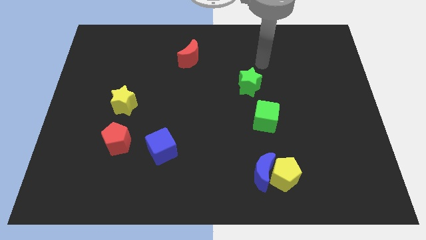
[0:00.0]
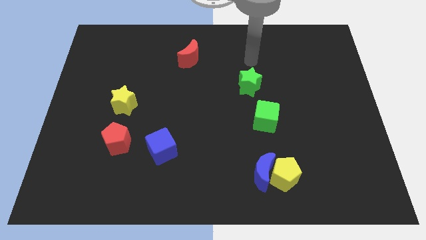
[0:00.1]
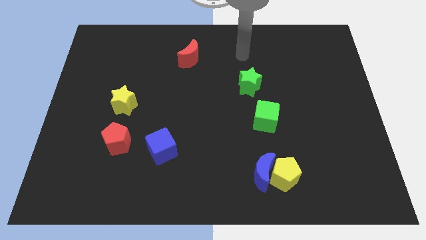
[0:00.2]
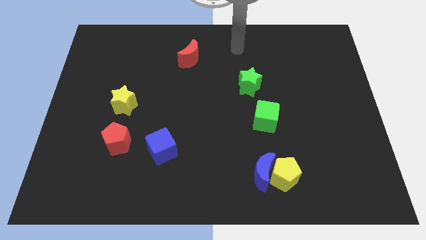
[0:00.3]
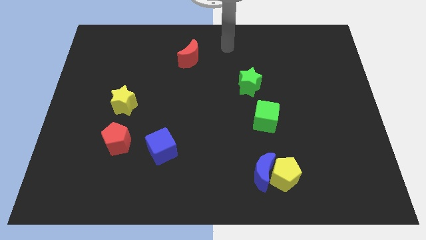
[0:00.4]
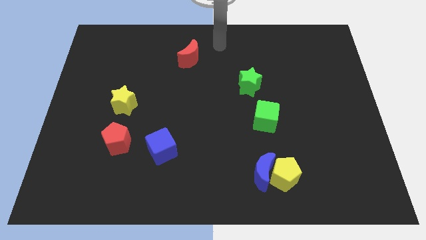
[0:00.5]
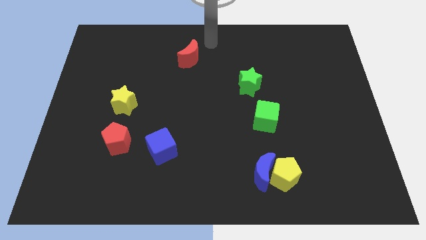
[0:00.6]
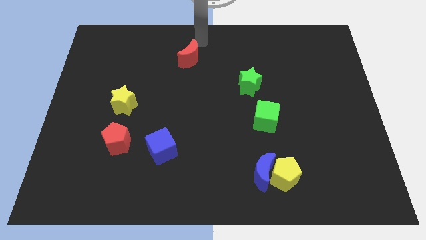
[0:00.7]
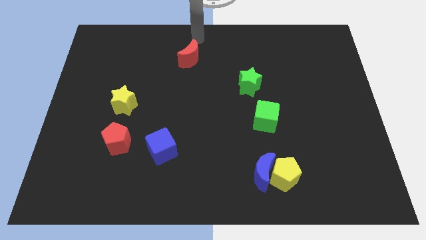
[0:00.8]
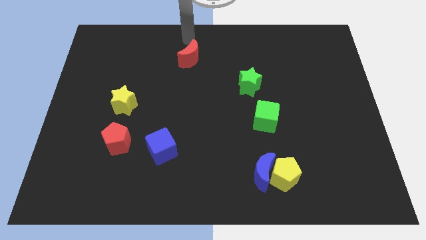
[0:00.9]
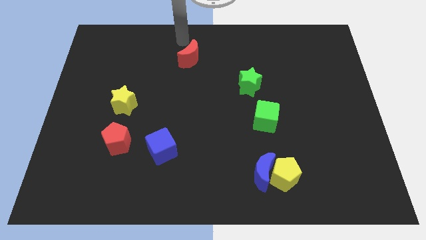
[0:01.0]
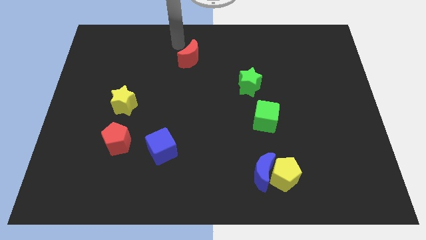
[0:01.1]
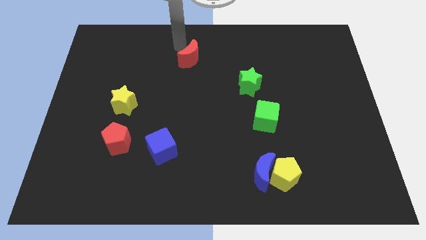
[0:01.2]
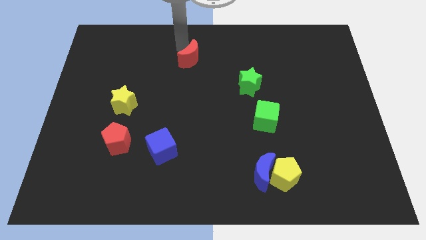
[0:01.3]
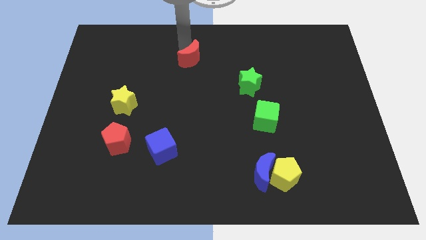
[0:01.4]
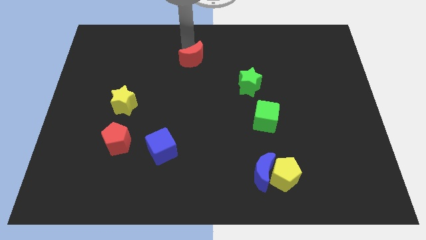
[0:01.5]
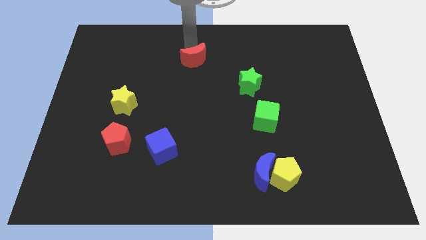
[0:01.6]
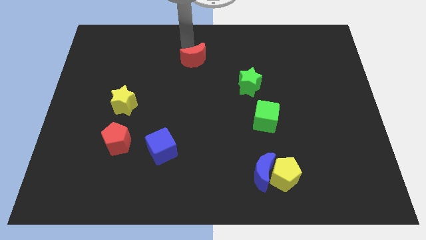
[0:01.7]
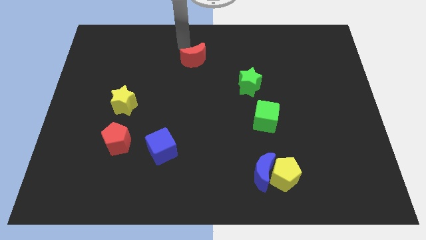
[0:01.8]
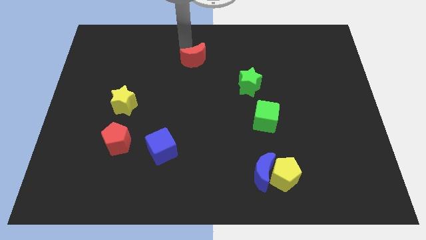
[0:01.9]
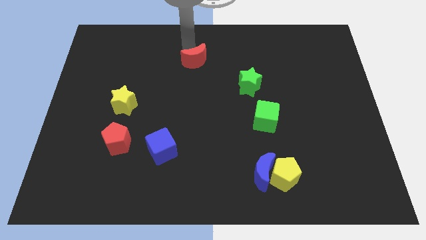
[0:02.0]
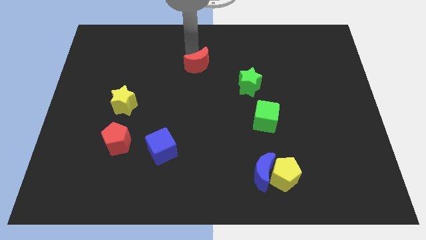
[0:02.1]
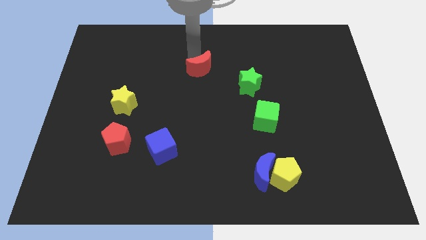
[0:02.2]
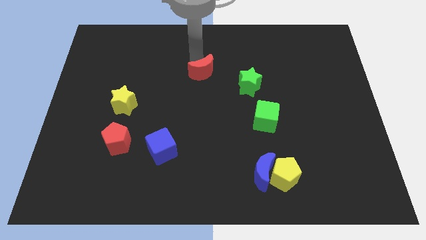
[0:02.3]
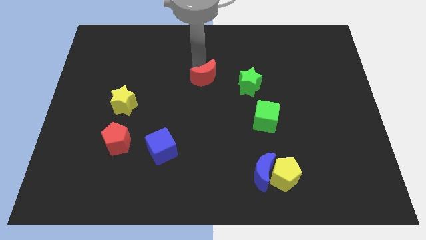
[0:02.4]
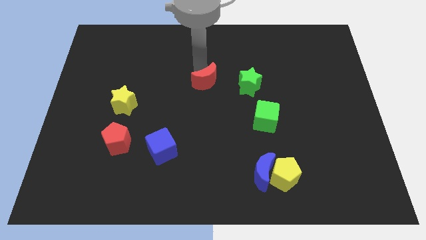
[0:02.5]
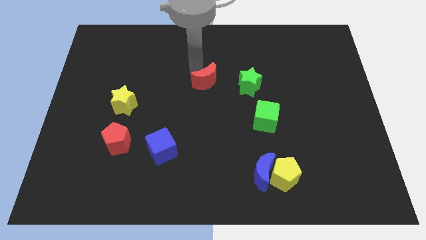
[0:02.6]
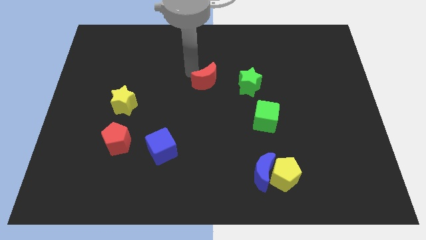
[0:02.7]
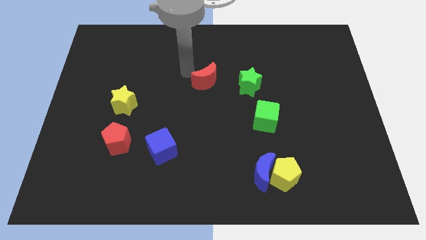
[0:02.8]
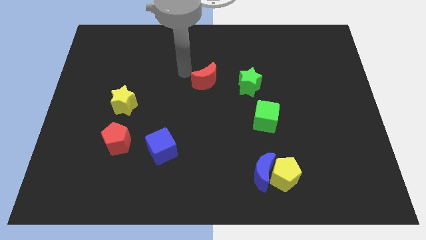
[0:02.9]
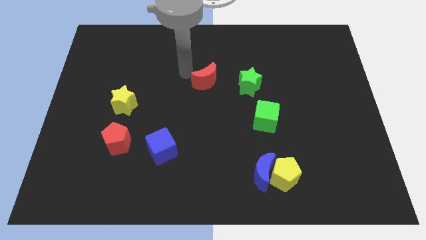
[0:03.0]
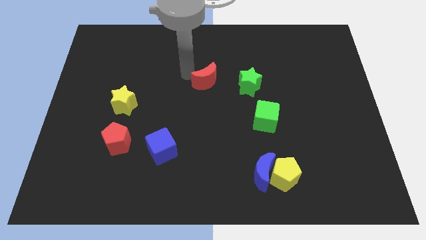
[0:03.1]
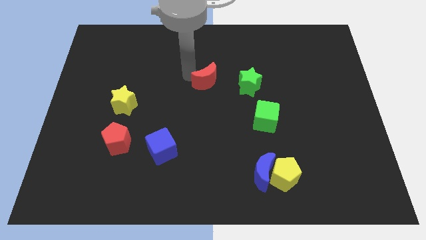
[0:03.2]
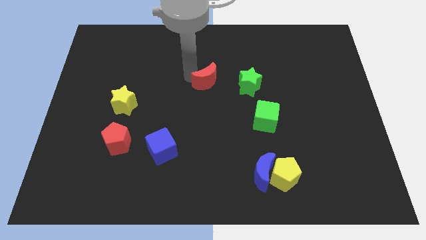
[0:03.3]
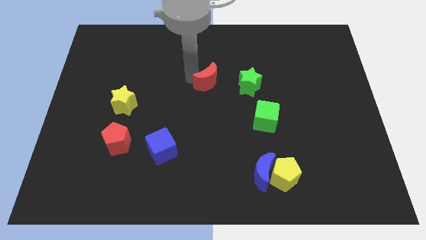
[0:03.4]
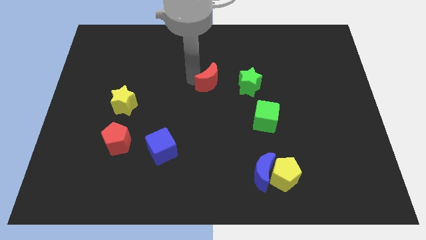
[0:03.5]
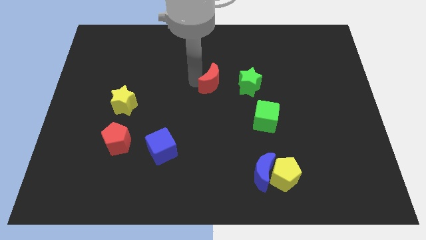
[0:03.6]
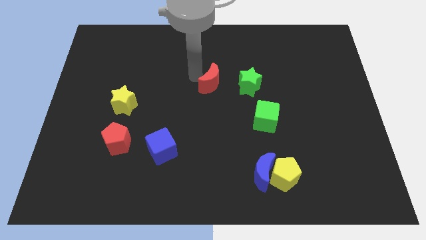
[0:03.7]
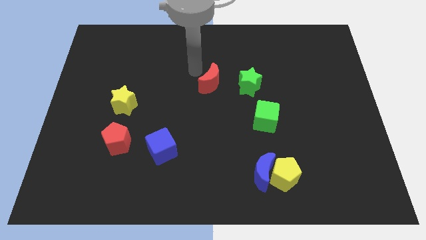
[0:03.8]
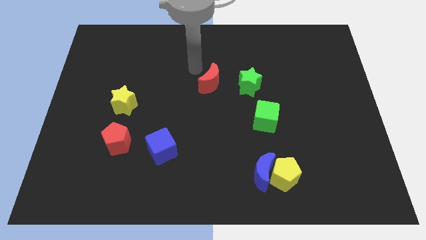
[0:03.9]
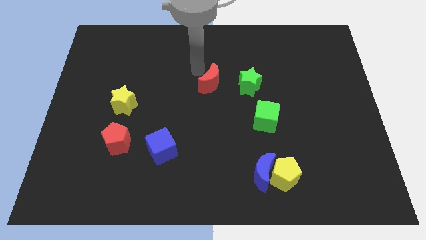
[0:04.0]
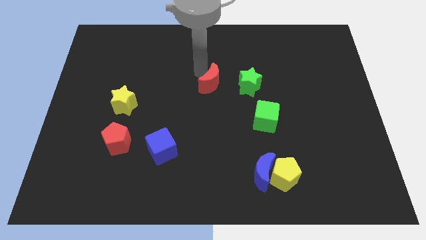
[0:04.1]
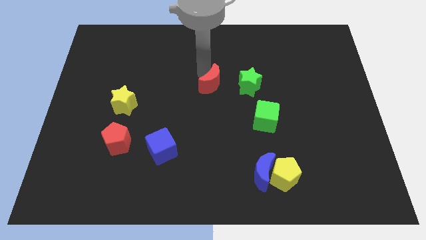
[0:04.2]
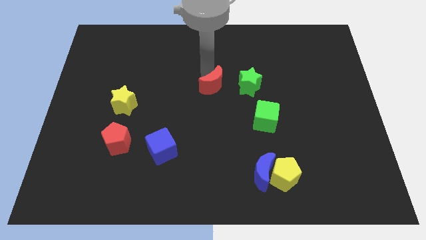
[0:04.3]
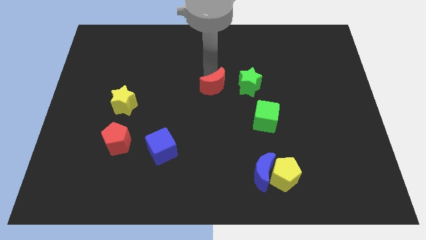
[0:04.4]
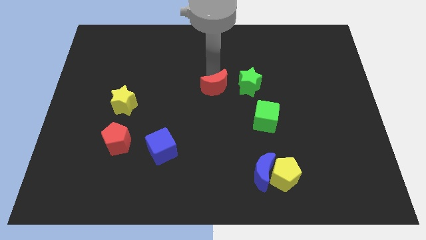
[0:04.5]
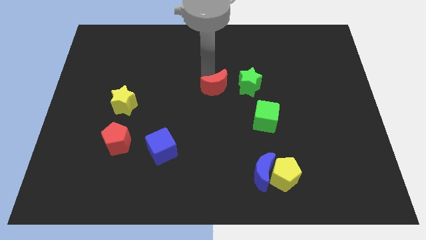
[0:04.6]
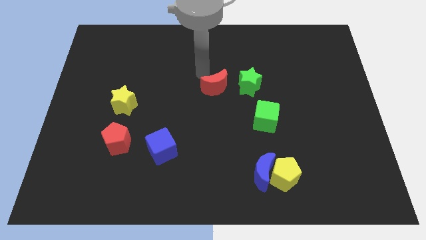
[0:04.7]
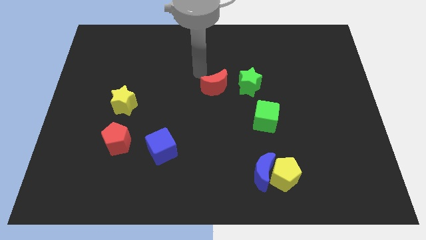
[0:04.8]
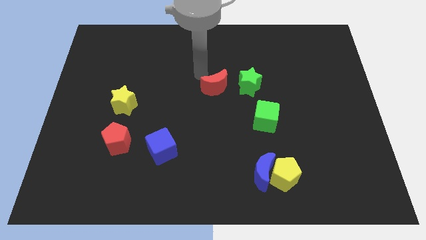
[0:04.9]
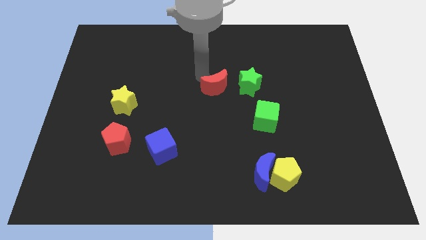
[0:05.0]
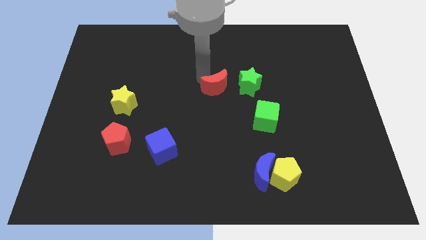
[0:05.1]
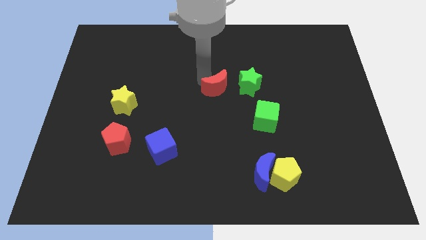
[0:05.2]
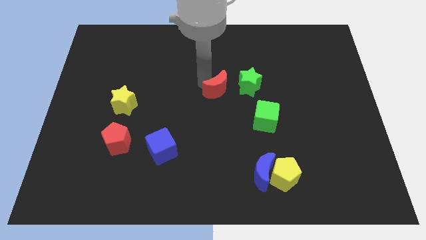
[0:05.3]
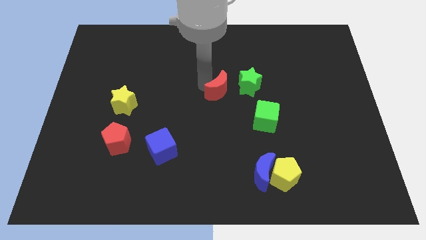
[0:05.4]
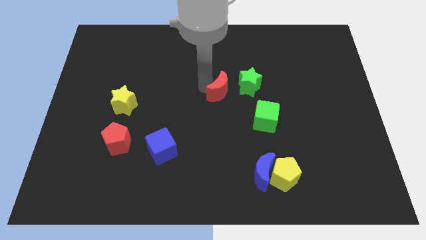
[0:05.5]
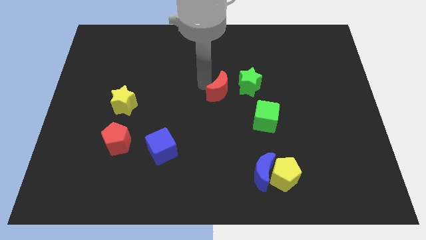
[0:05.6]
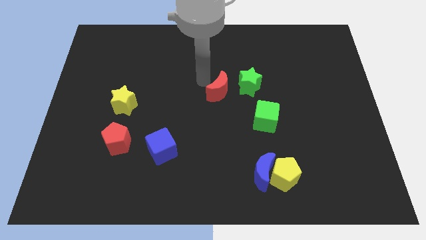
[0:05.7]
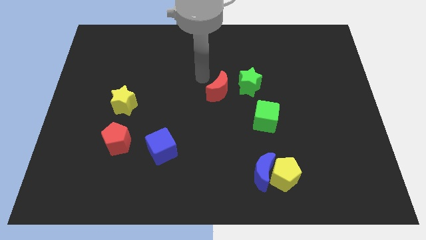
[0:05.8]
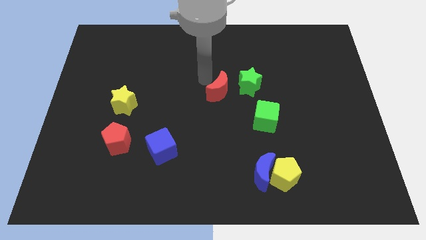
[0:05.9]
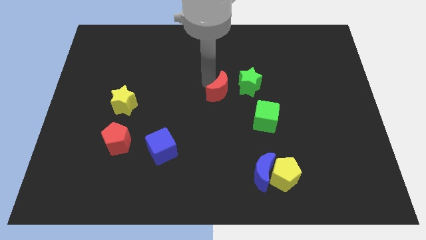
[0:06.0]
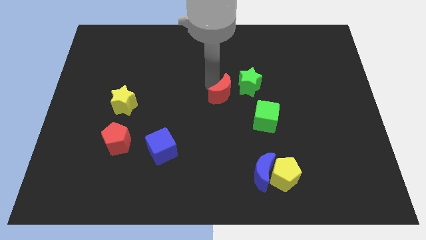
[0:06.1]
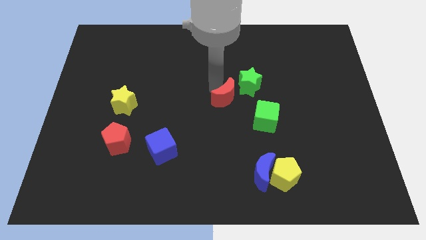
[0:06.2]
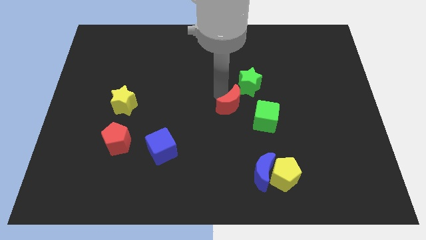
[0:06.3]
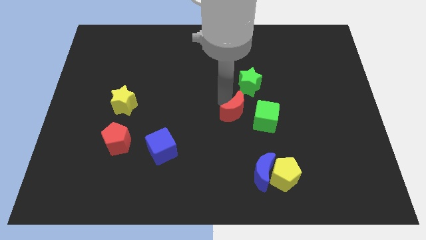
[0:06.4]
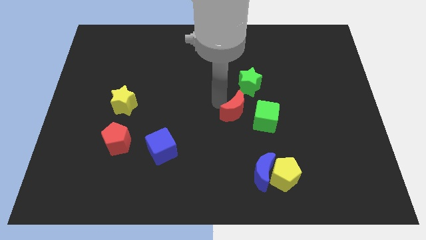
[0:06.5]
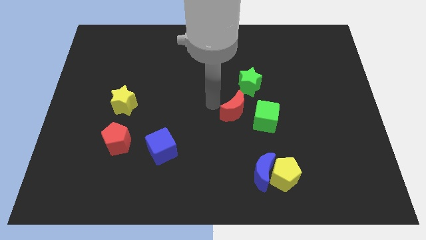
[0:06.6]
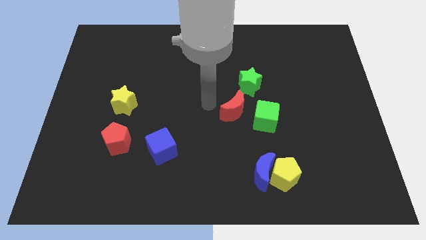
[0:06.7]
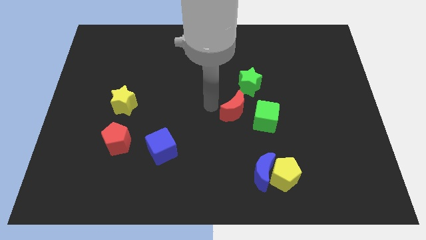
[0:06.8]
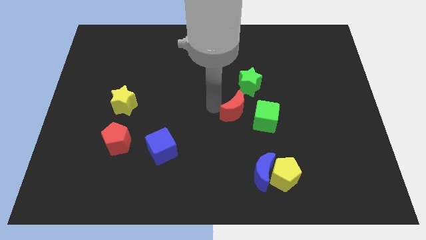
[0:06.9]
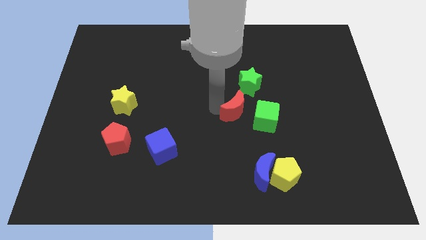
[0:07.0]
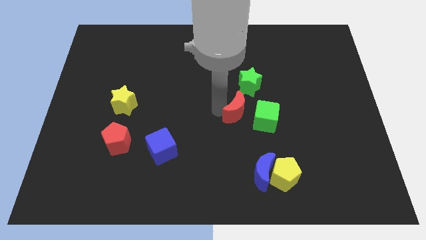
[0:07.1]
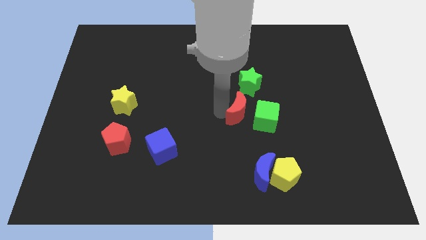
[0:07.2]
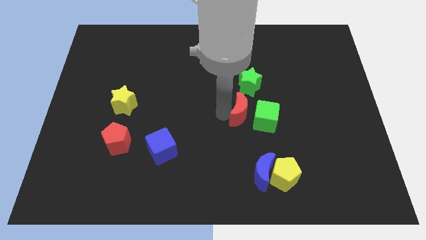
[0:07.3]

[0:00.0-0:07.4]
move the red moon close to the green cube
